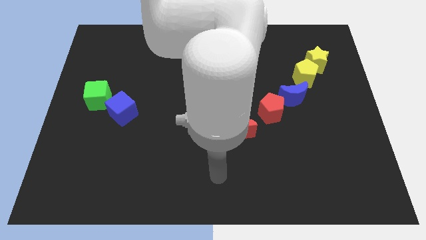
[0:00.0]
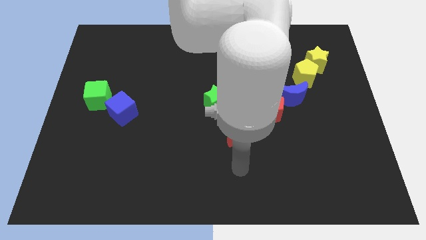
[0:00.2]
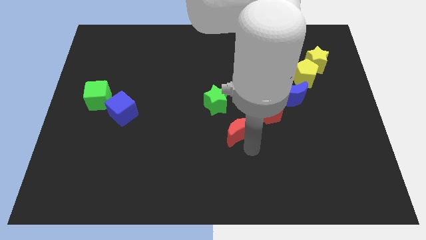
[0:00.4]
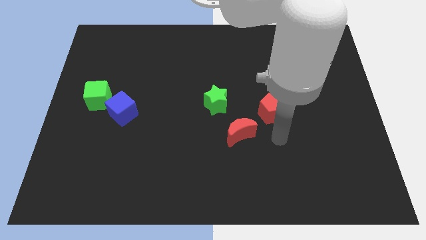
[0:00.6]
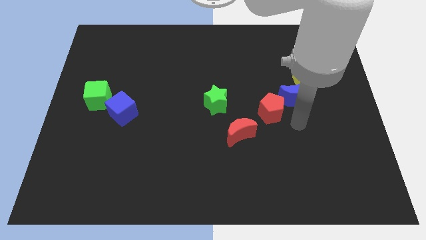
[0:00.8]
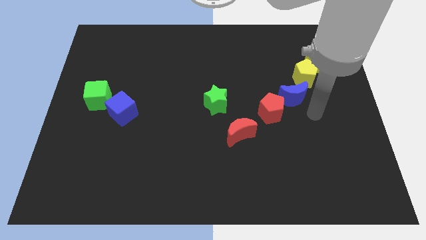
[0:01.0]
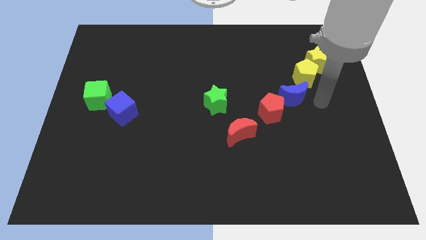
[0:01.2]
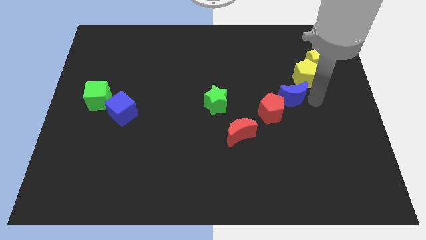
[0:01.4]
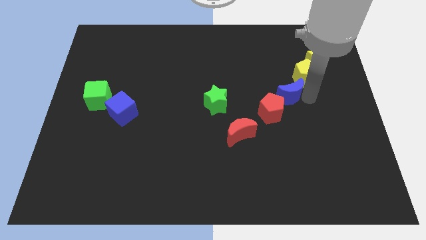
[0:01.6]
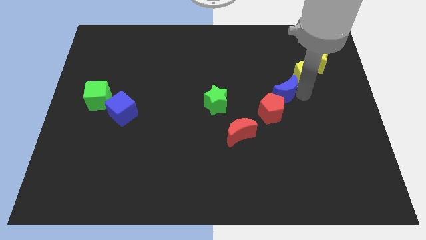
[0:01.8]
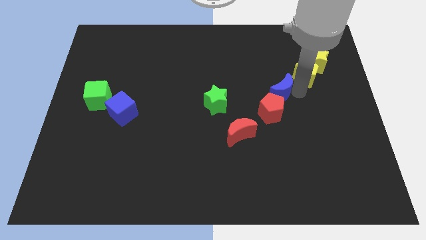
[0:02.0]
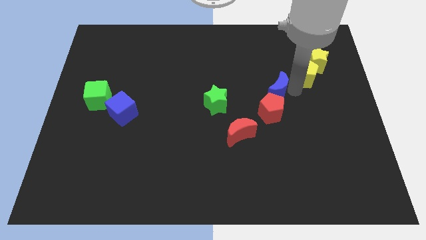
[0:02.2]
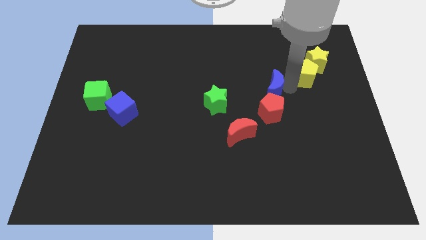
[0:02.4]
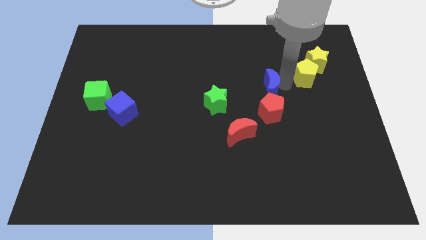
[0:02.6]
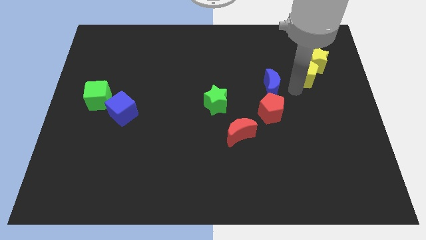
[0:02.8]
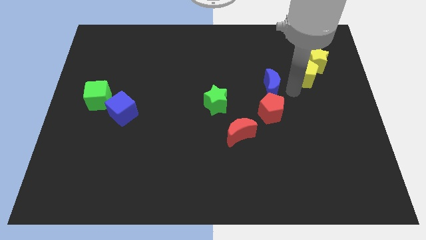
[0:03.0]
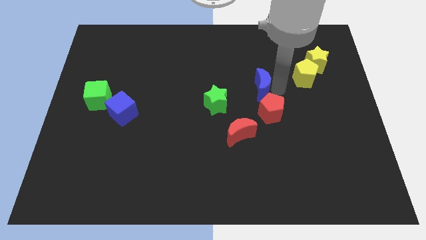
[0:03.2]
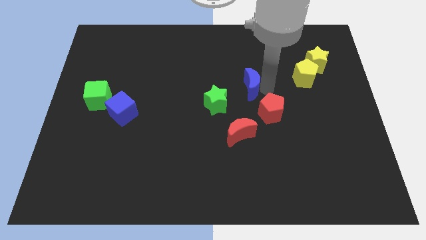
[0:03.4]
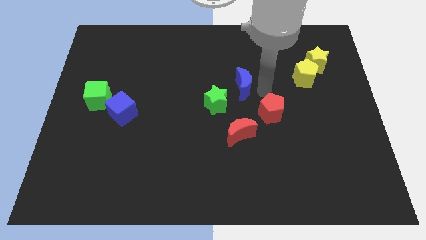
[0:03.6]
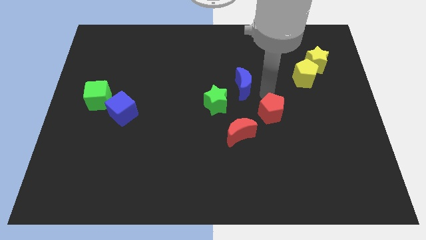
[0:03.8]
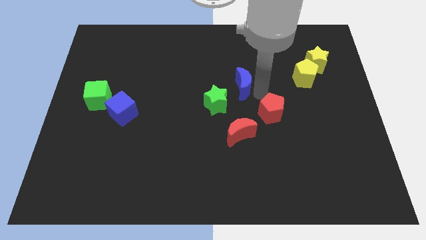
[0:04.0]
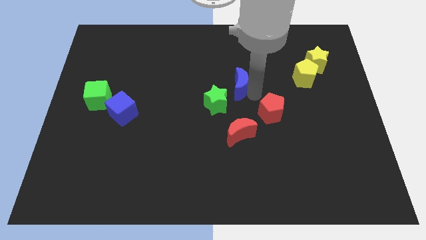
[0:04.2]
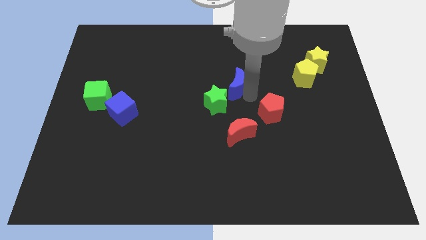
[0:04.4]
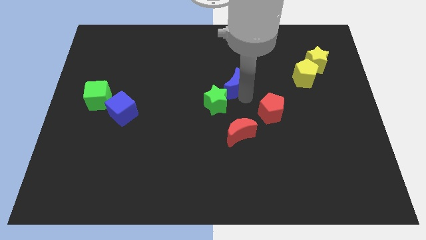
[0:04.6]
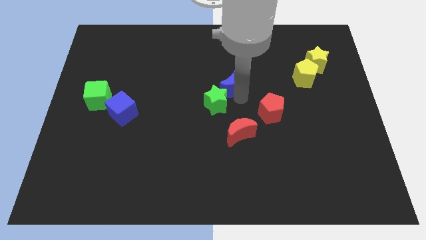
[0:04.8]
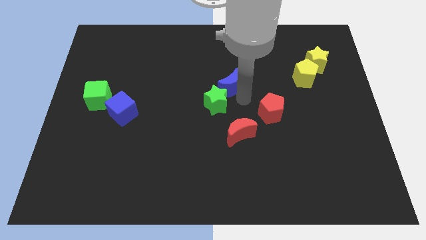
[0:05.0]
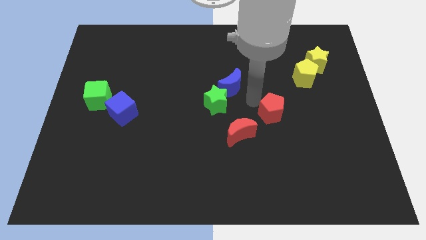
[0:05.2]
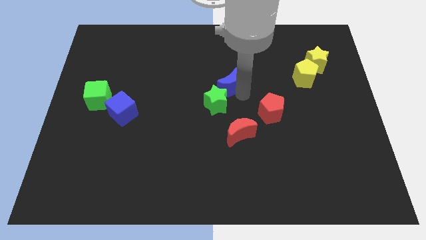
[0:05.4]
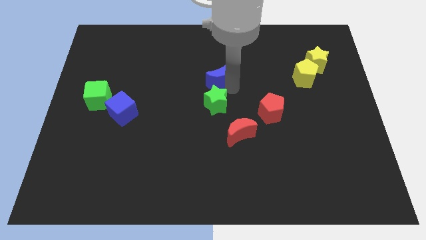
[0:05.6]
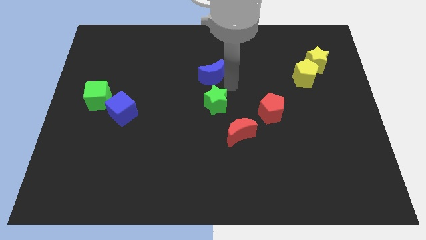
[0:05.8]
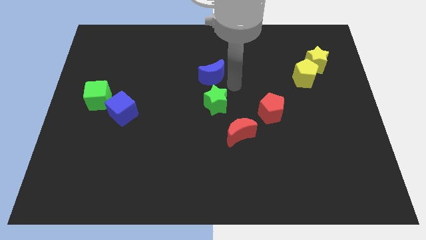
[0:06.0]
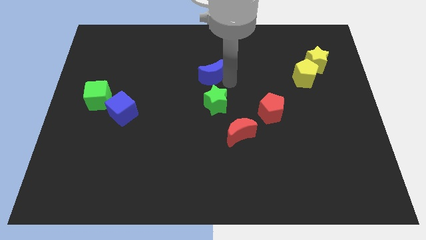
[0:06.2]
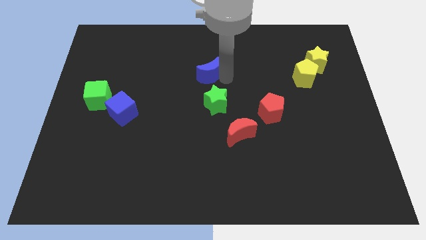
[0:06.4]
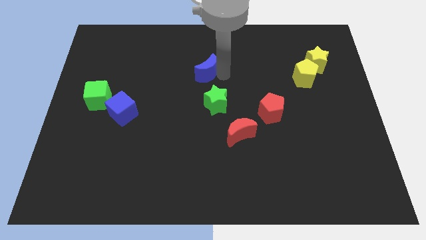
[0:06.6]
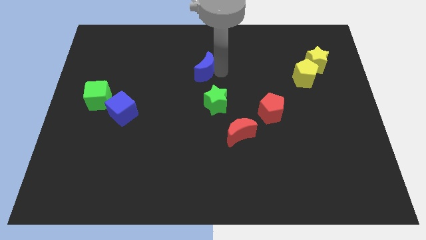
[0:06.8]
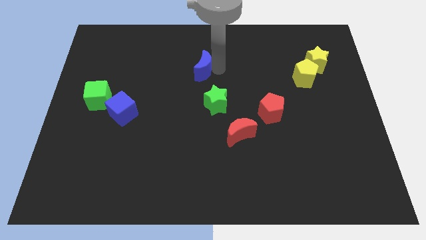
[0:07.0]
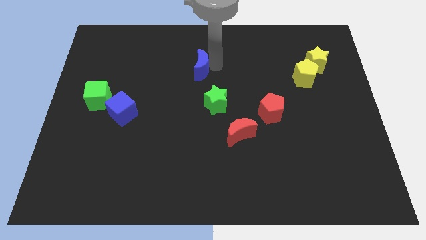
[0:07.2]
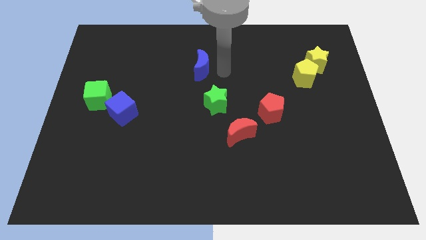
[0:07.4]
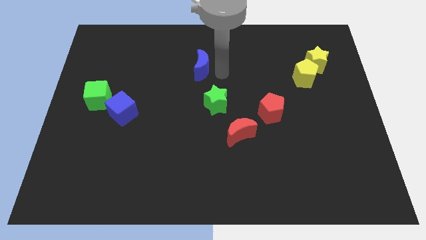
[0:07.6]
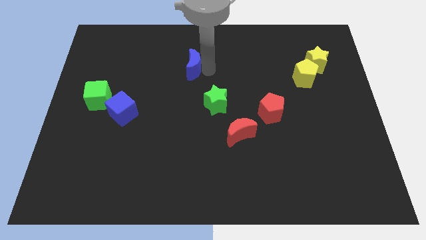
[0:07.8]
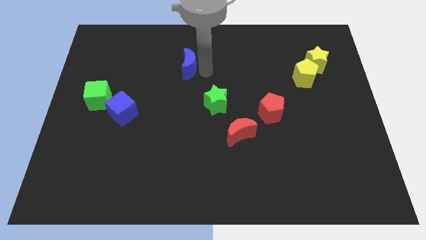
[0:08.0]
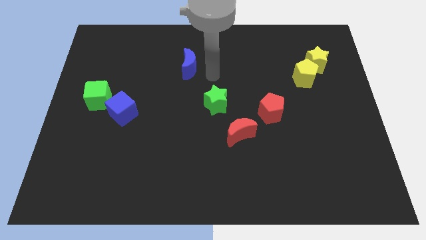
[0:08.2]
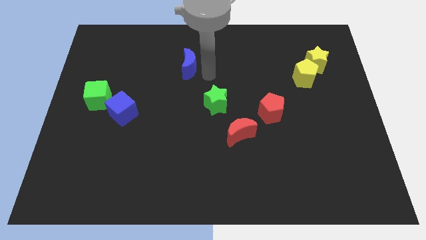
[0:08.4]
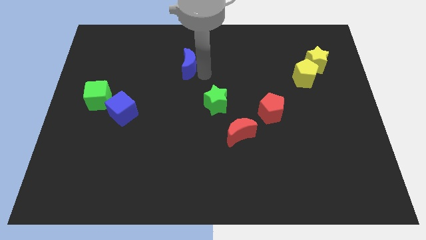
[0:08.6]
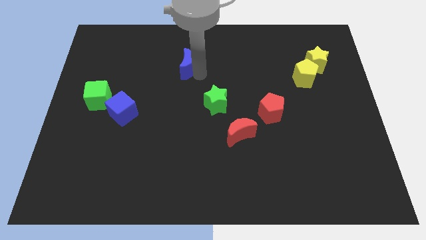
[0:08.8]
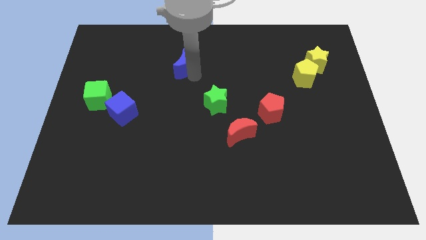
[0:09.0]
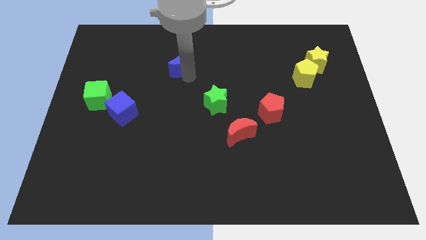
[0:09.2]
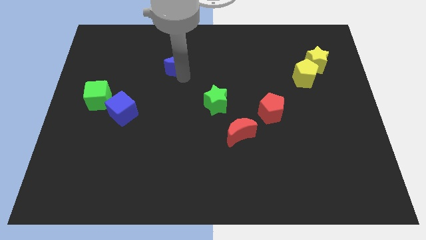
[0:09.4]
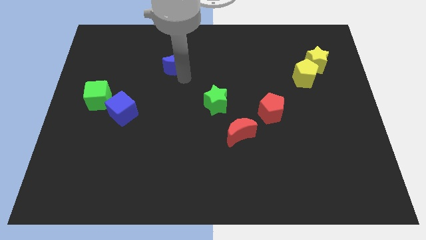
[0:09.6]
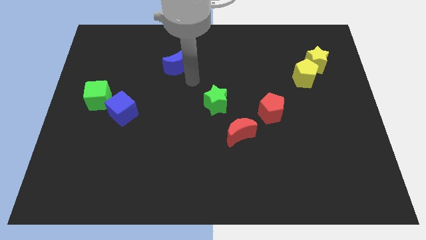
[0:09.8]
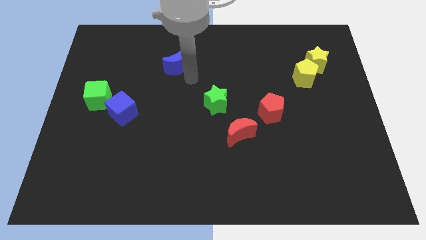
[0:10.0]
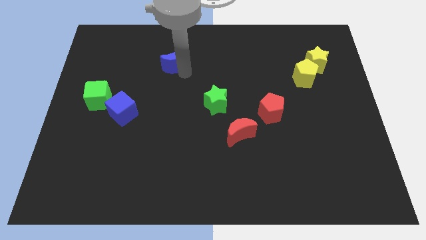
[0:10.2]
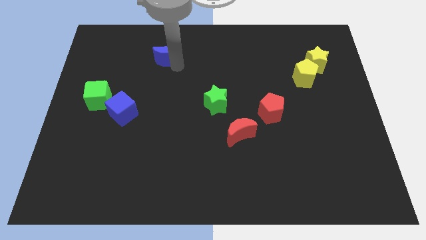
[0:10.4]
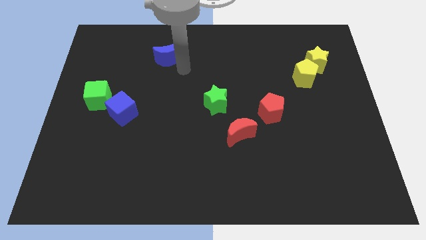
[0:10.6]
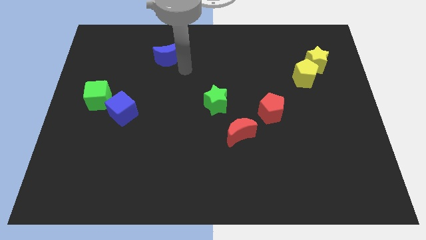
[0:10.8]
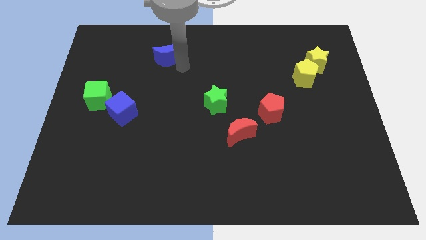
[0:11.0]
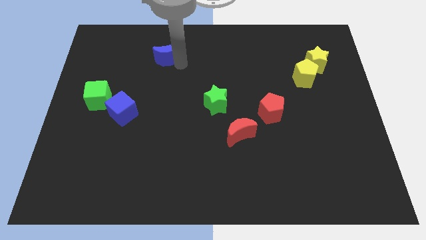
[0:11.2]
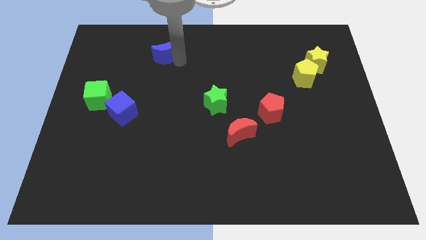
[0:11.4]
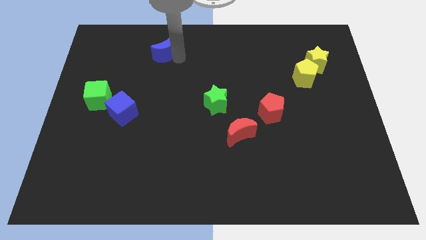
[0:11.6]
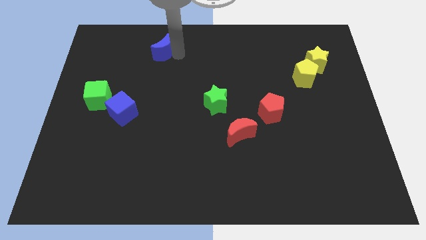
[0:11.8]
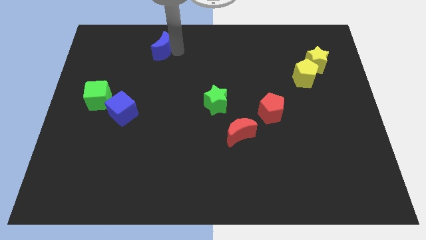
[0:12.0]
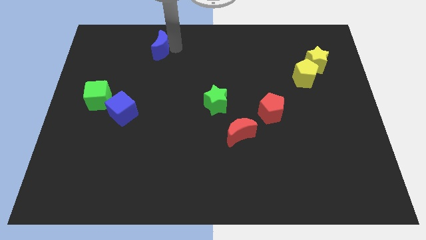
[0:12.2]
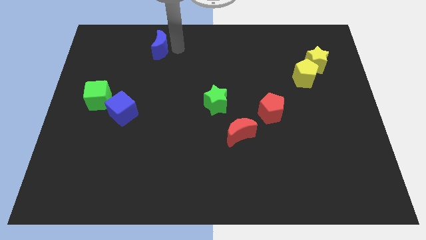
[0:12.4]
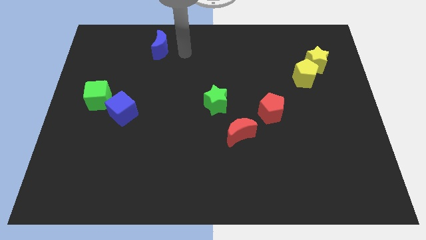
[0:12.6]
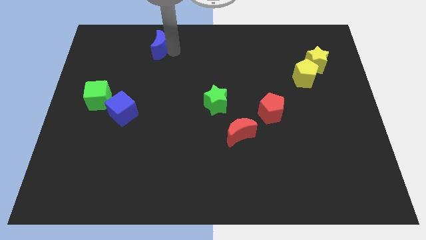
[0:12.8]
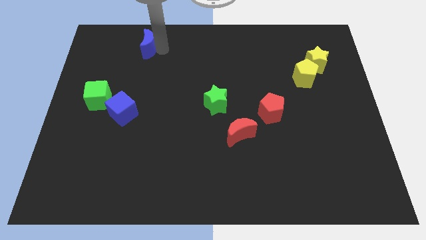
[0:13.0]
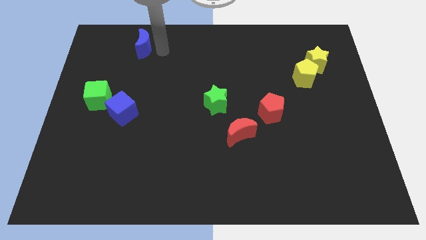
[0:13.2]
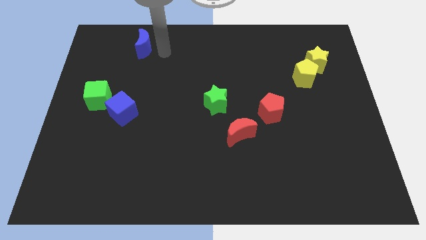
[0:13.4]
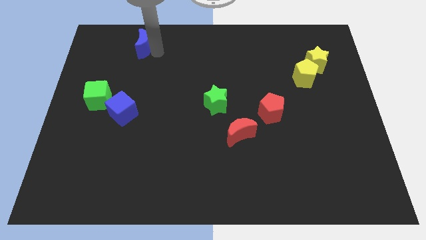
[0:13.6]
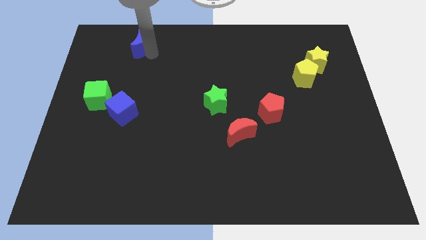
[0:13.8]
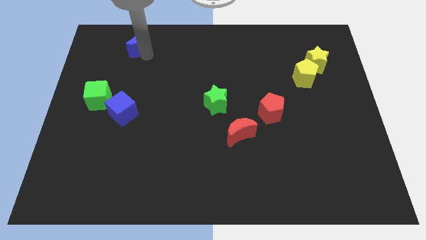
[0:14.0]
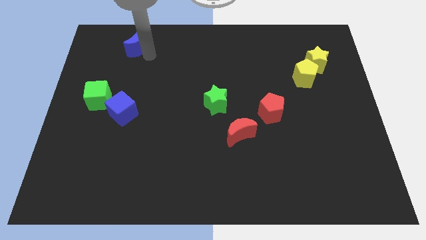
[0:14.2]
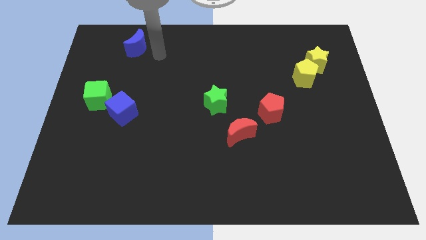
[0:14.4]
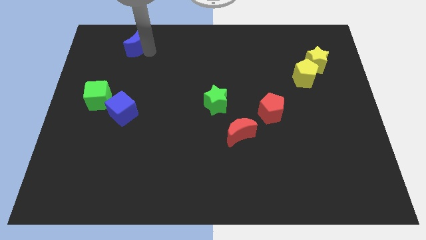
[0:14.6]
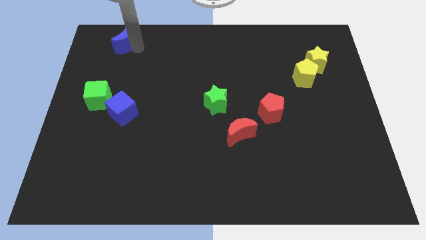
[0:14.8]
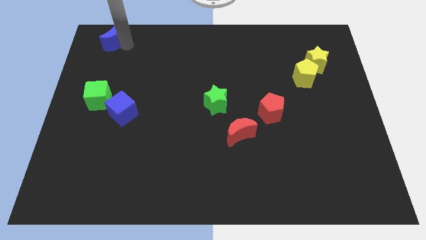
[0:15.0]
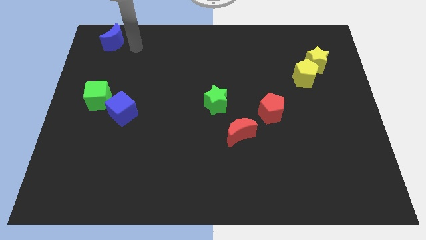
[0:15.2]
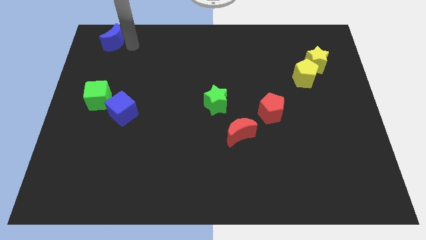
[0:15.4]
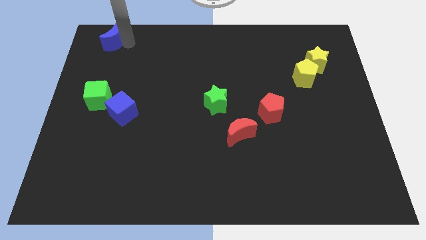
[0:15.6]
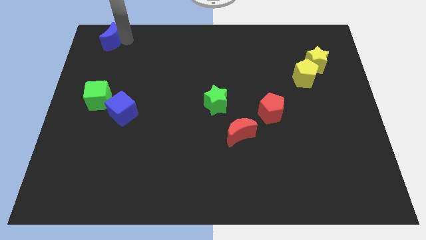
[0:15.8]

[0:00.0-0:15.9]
put the blue moon to the top left of the board
